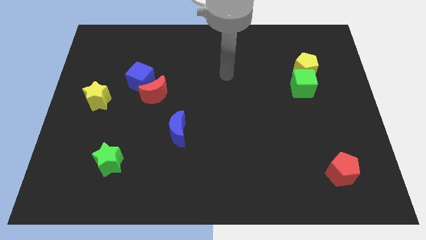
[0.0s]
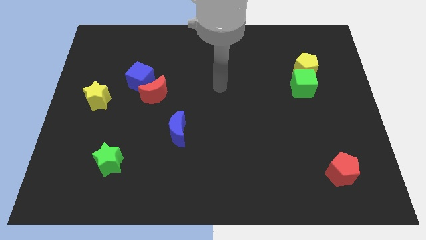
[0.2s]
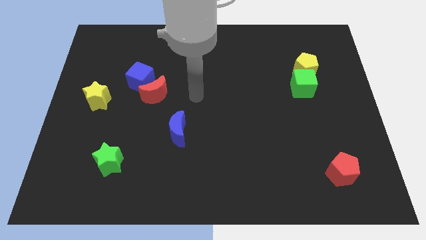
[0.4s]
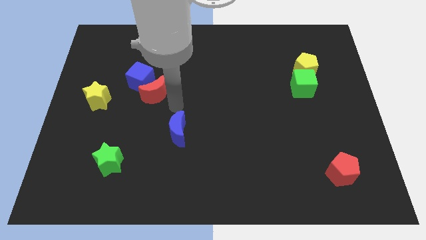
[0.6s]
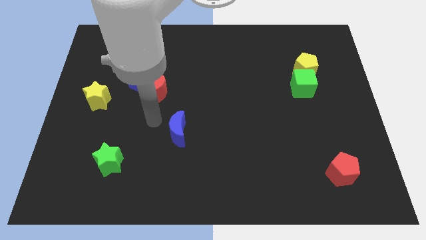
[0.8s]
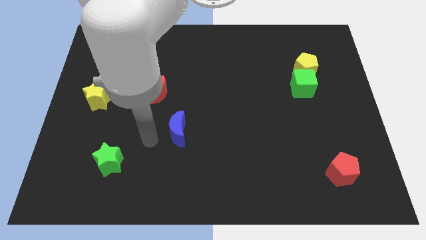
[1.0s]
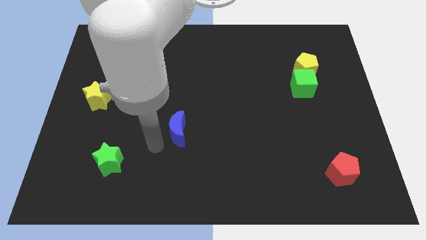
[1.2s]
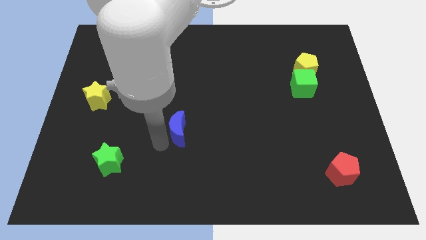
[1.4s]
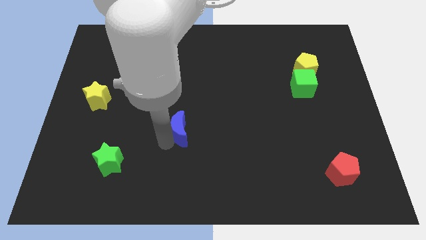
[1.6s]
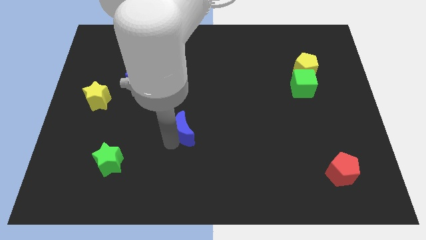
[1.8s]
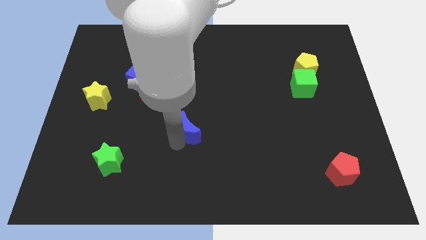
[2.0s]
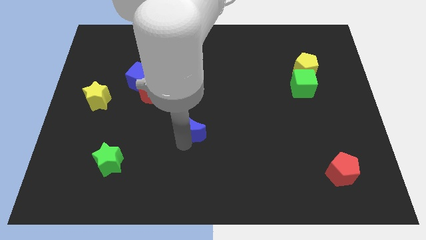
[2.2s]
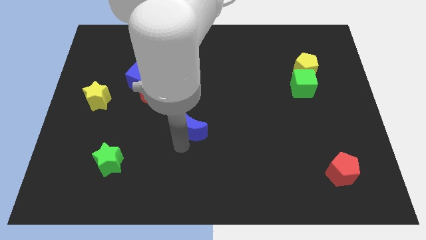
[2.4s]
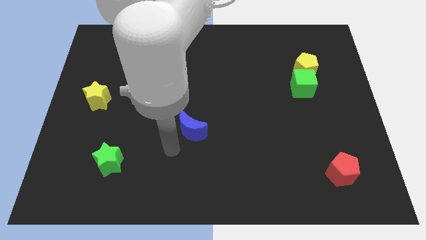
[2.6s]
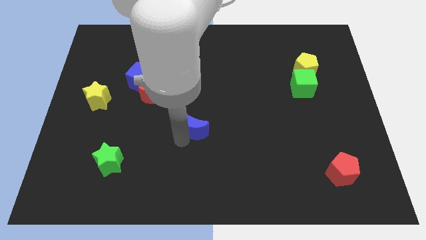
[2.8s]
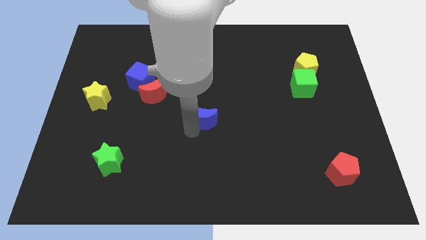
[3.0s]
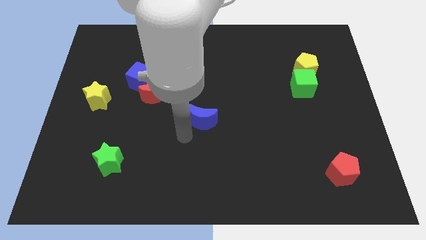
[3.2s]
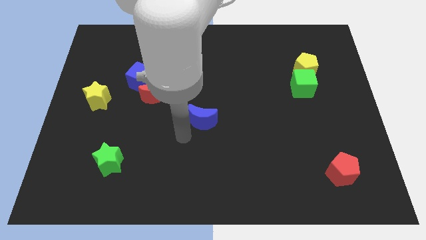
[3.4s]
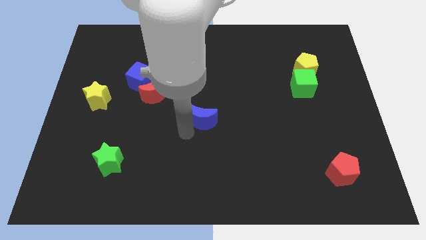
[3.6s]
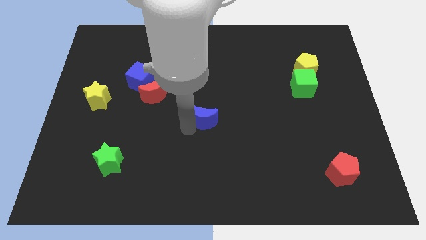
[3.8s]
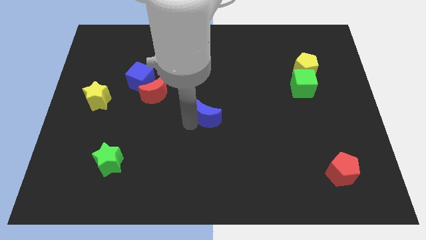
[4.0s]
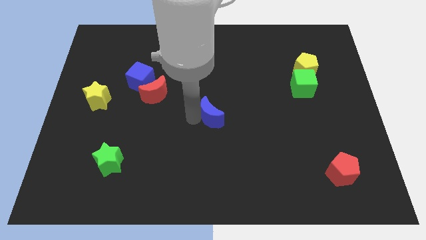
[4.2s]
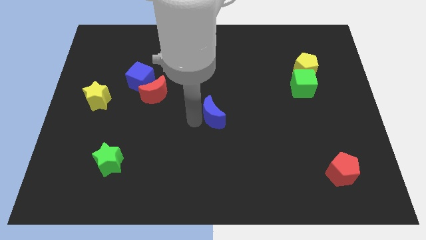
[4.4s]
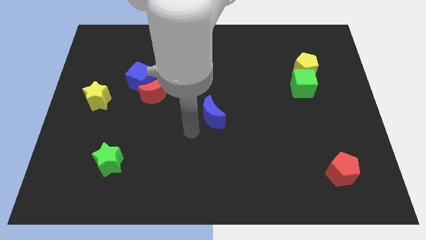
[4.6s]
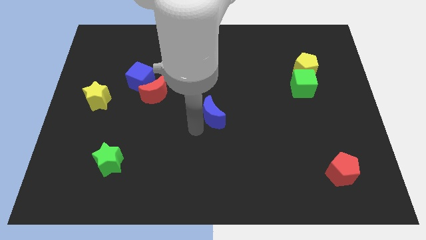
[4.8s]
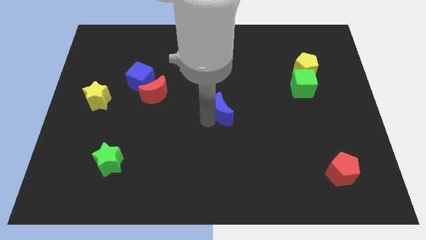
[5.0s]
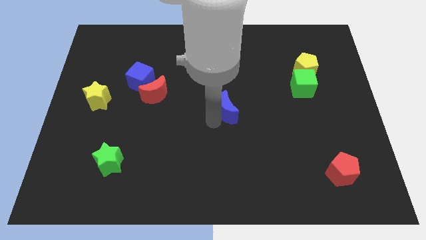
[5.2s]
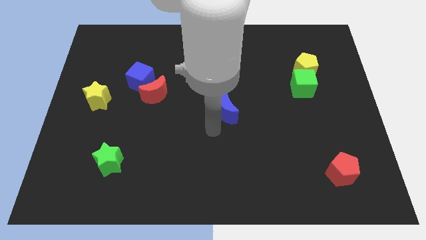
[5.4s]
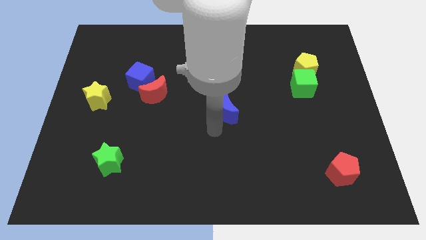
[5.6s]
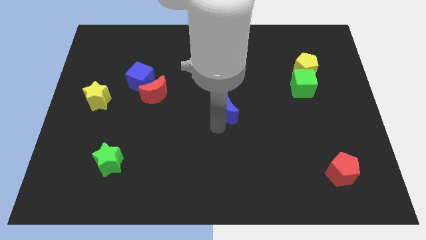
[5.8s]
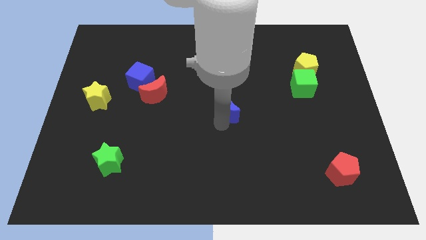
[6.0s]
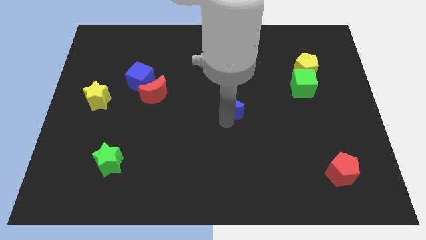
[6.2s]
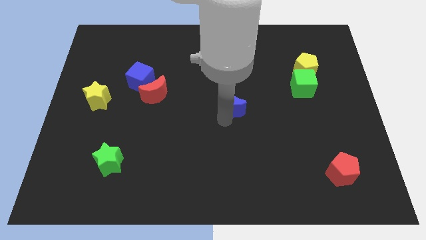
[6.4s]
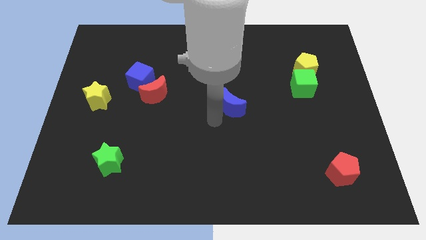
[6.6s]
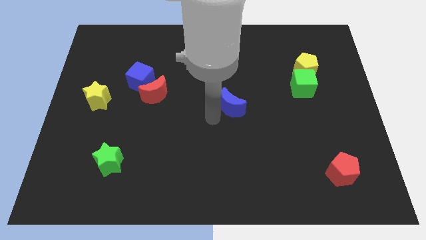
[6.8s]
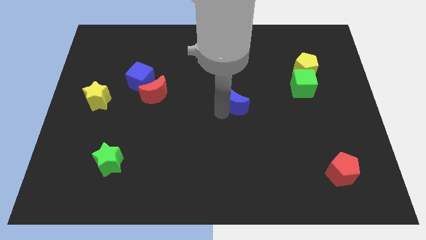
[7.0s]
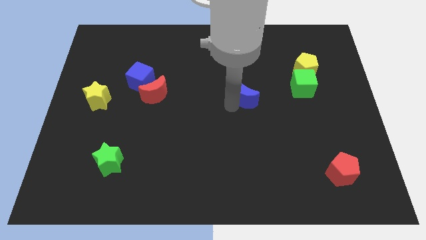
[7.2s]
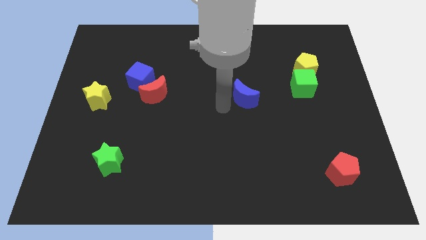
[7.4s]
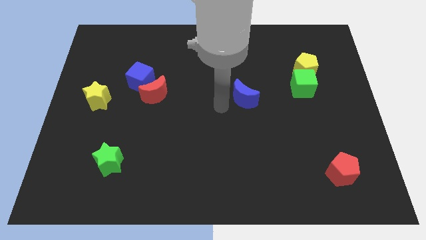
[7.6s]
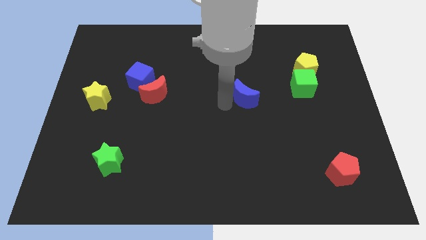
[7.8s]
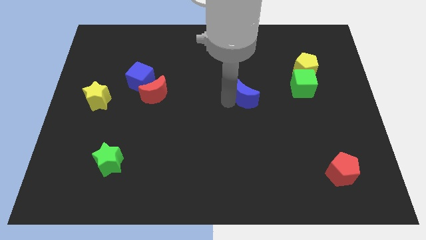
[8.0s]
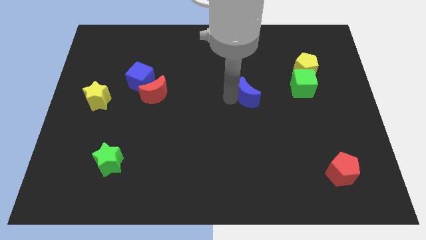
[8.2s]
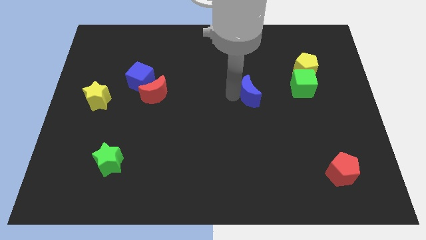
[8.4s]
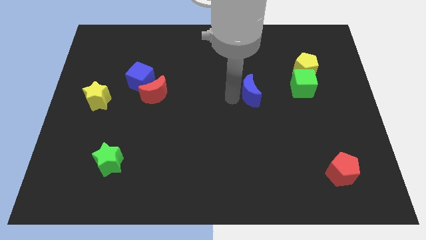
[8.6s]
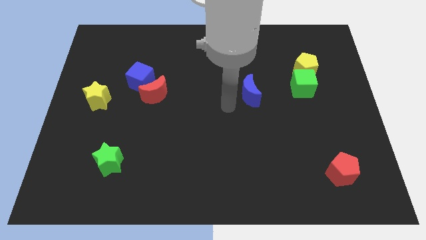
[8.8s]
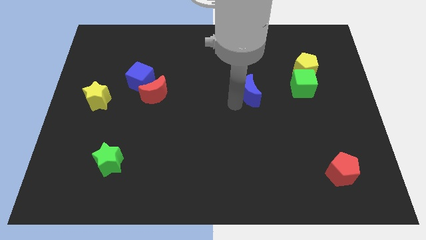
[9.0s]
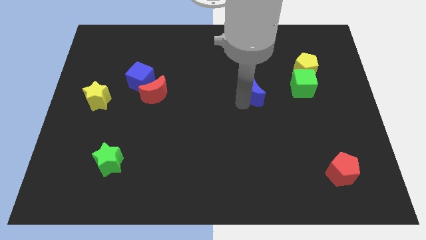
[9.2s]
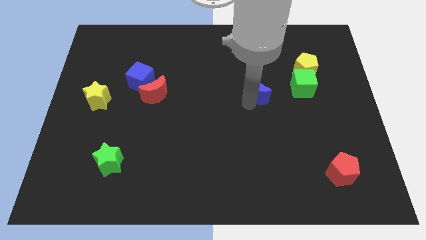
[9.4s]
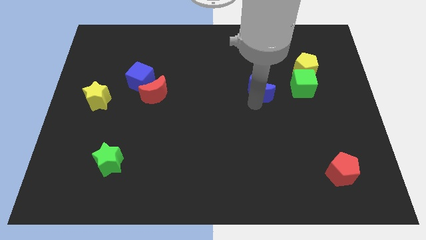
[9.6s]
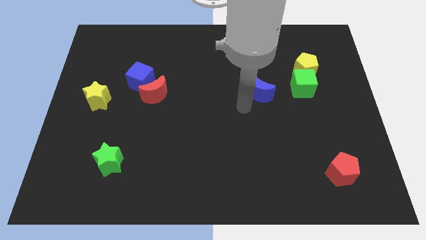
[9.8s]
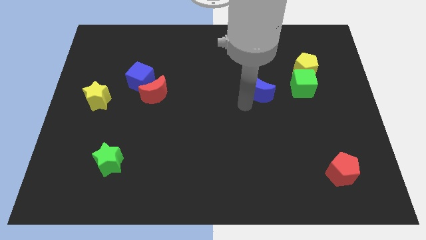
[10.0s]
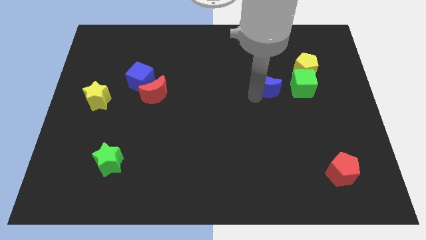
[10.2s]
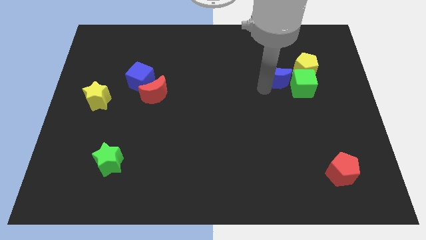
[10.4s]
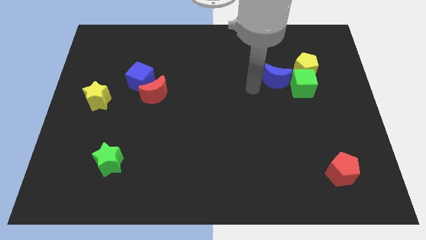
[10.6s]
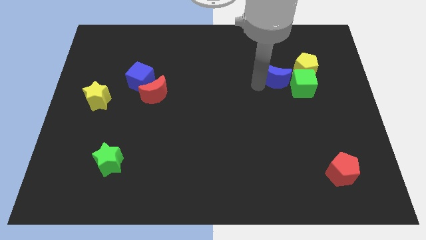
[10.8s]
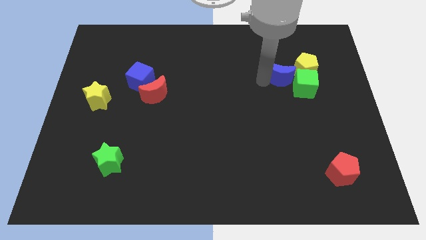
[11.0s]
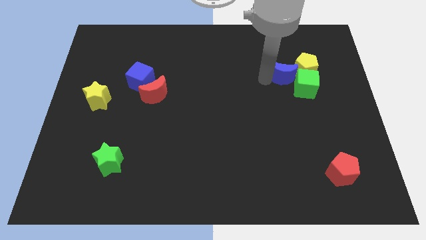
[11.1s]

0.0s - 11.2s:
move the blue moon towards the yellow pentagon

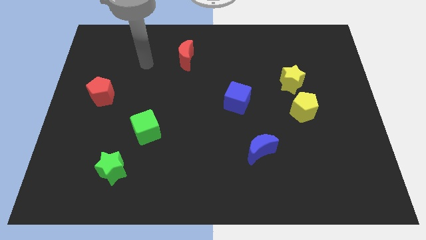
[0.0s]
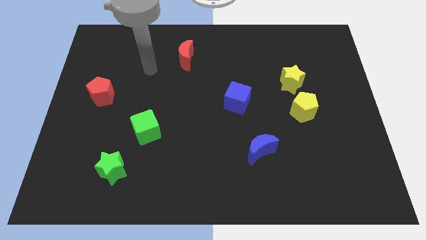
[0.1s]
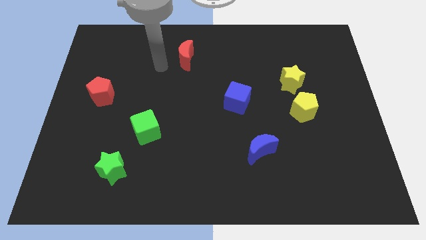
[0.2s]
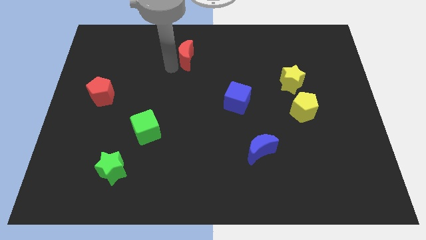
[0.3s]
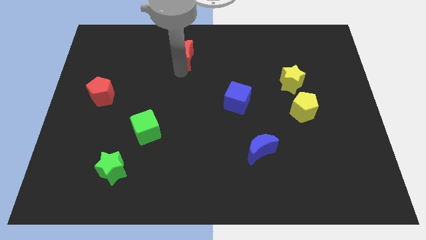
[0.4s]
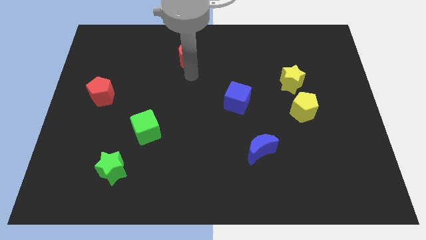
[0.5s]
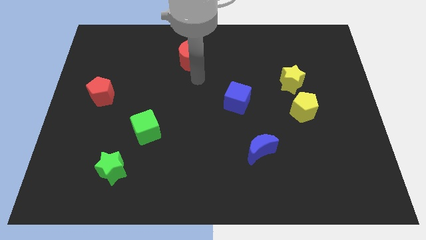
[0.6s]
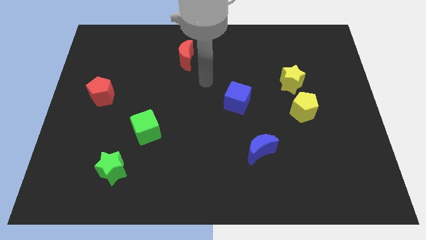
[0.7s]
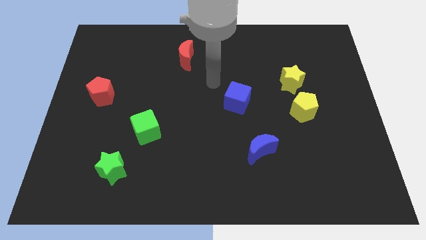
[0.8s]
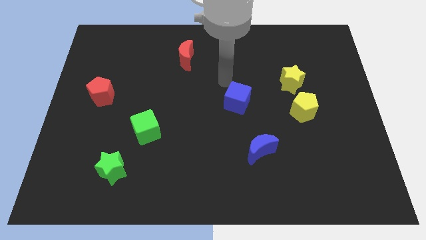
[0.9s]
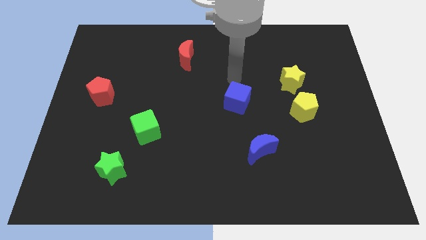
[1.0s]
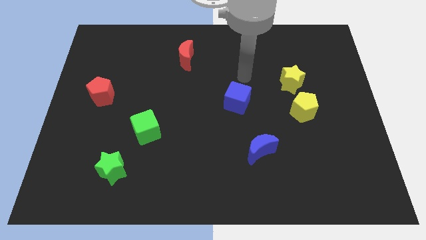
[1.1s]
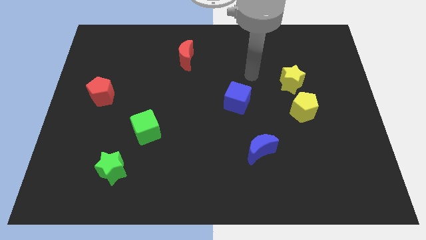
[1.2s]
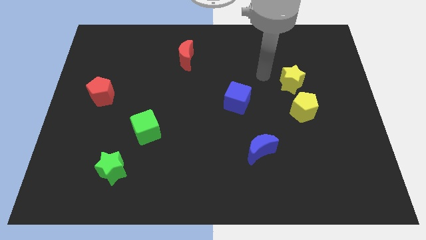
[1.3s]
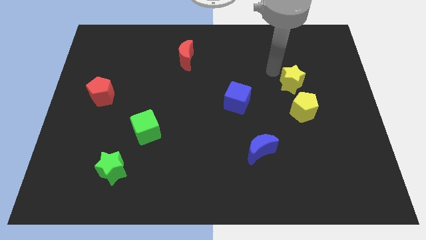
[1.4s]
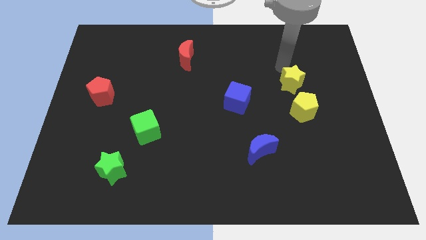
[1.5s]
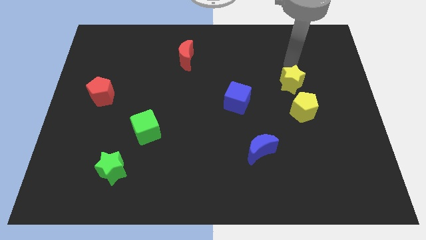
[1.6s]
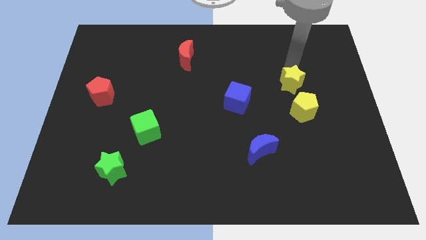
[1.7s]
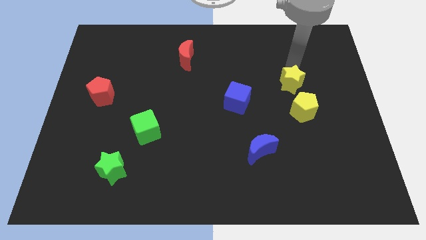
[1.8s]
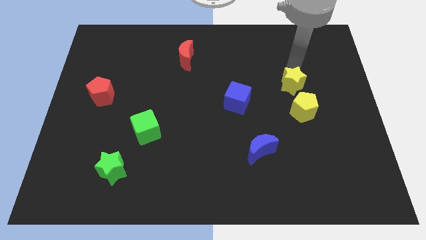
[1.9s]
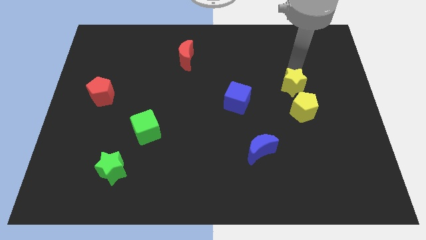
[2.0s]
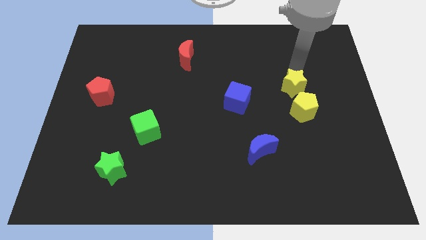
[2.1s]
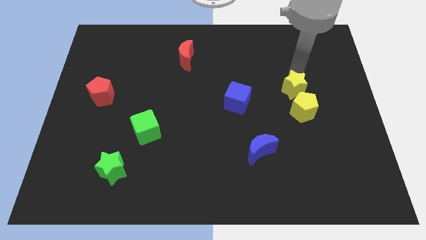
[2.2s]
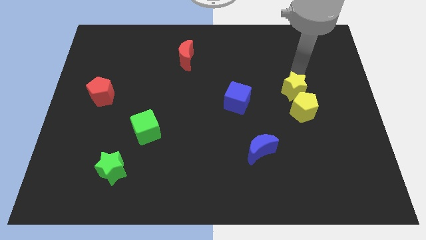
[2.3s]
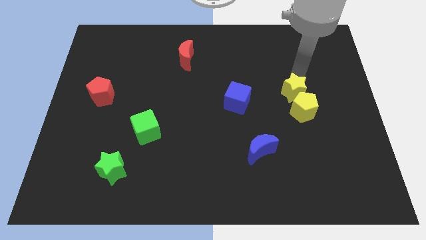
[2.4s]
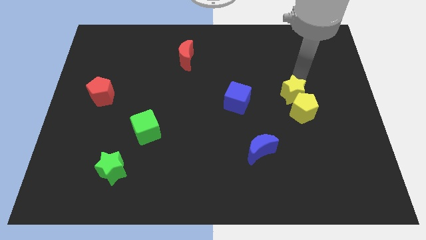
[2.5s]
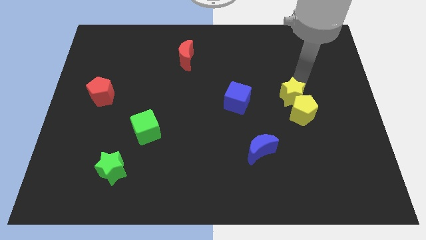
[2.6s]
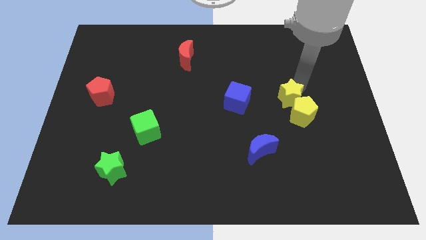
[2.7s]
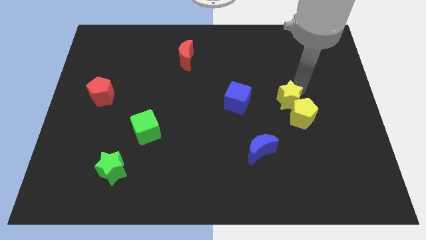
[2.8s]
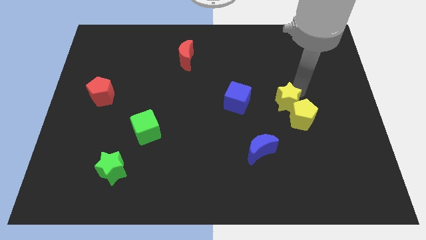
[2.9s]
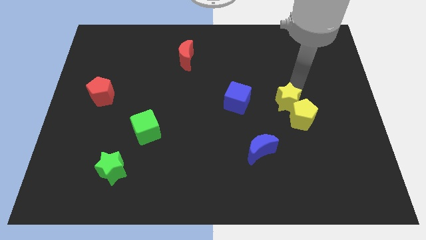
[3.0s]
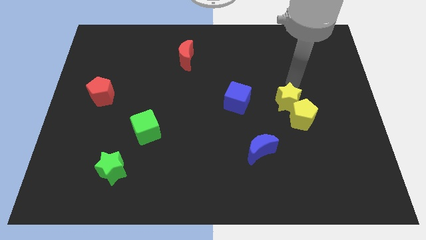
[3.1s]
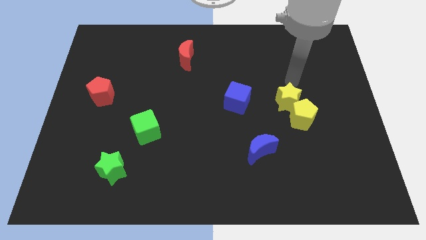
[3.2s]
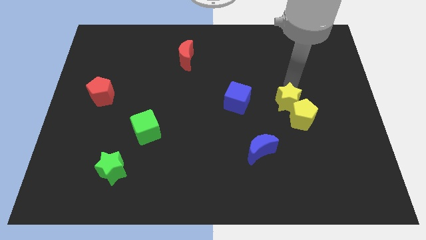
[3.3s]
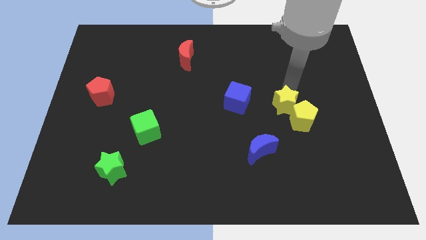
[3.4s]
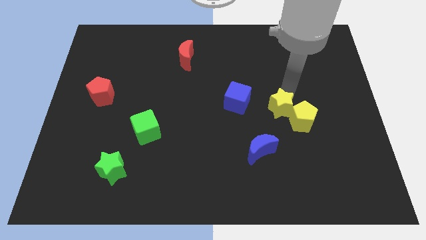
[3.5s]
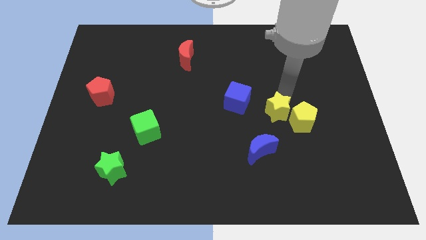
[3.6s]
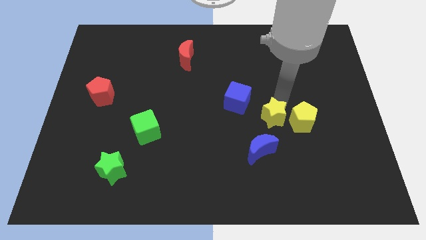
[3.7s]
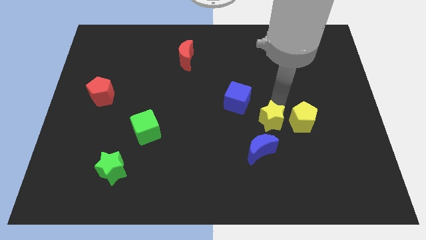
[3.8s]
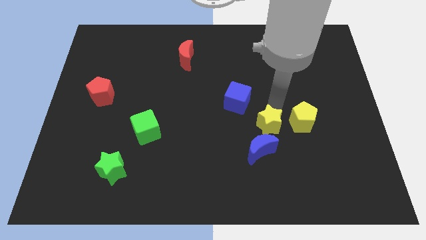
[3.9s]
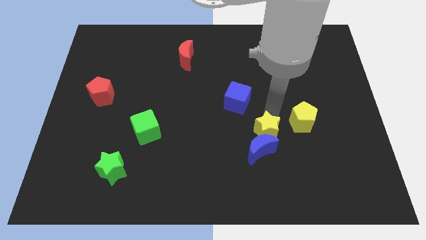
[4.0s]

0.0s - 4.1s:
move the yellow star next to the blue moon
